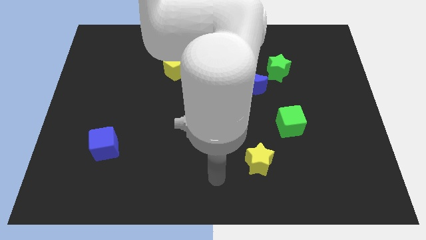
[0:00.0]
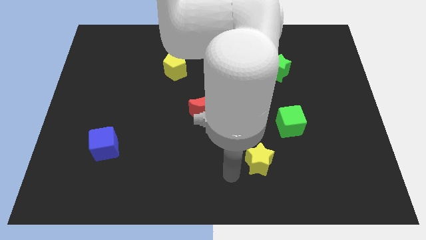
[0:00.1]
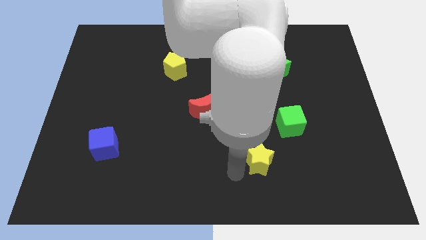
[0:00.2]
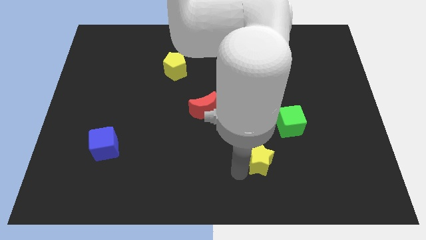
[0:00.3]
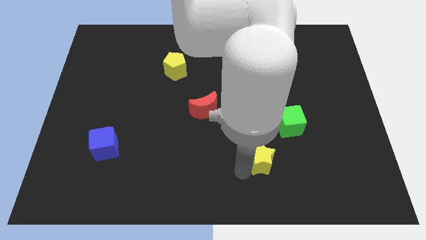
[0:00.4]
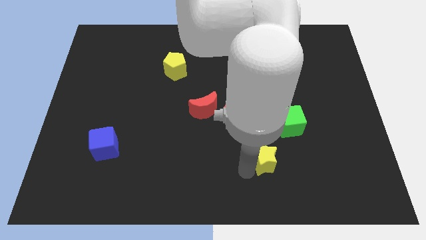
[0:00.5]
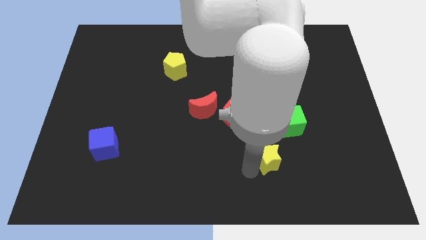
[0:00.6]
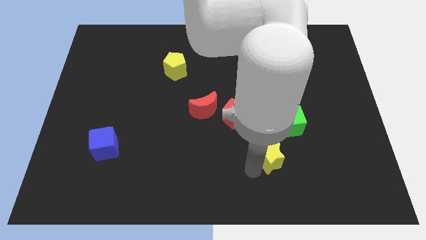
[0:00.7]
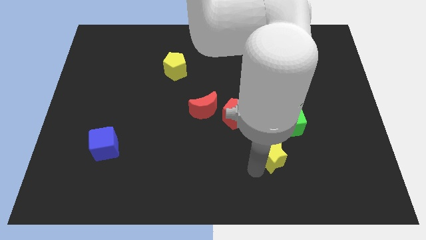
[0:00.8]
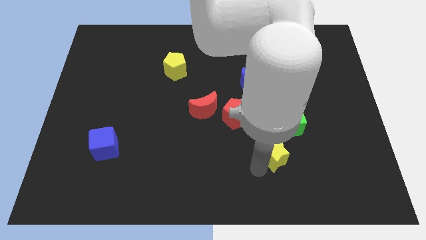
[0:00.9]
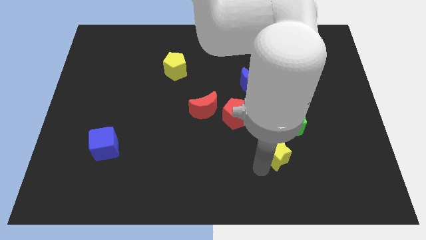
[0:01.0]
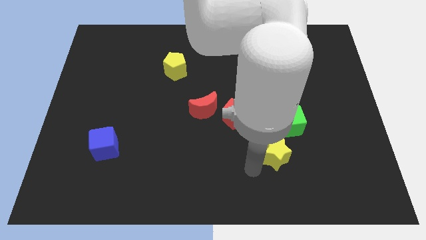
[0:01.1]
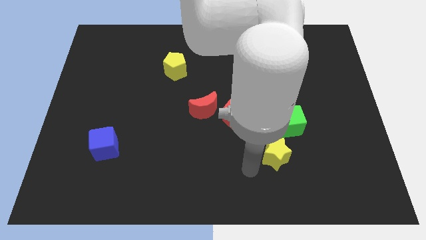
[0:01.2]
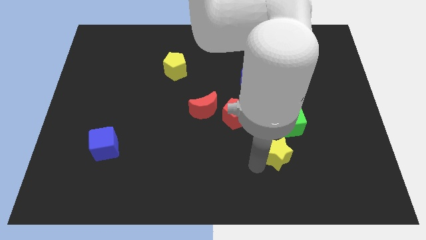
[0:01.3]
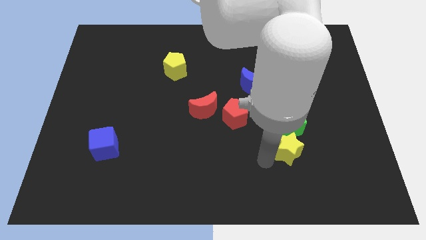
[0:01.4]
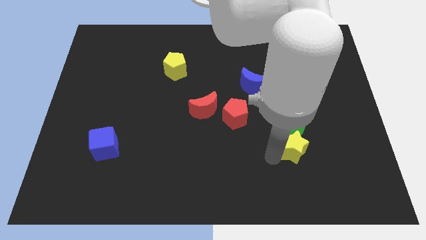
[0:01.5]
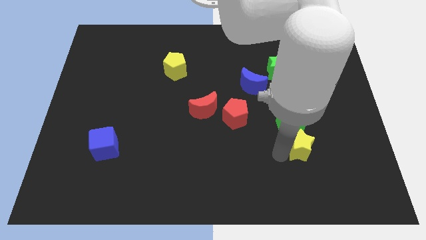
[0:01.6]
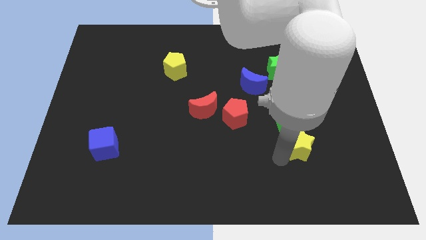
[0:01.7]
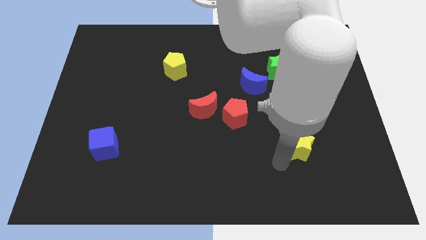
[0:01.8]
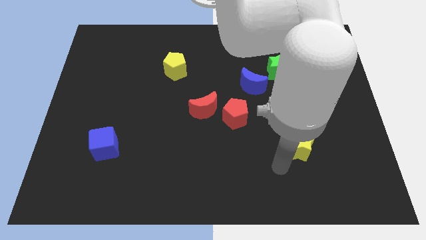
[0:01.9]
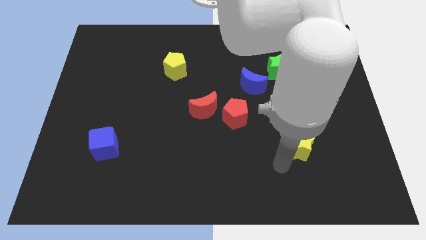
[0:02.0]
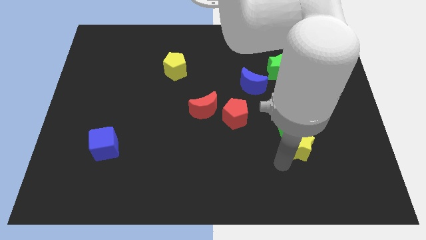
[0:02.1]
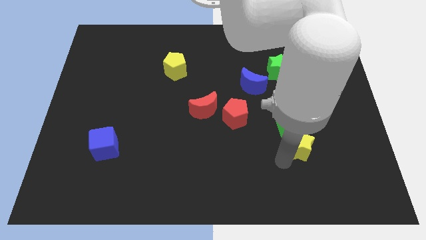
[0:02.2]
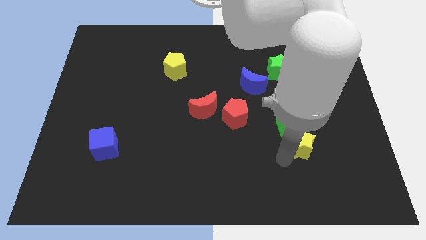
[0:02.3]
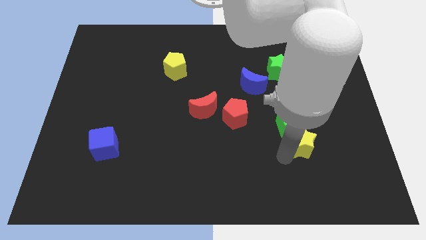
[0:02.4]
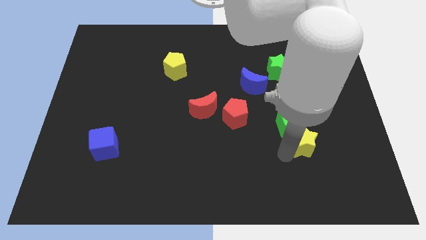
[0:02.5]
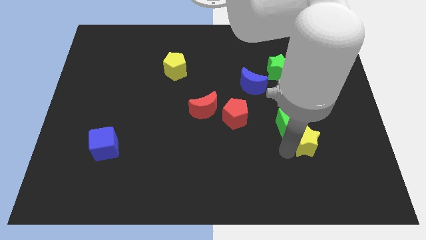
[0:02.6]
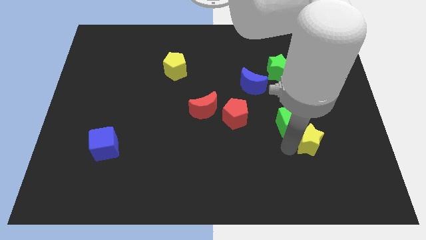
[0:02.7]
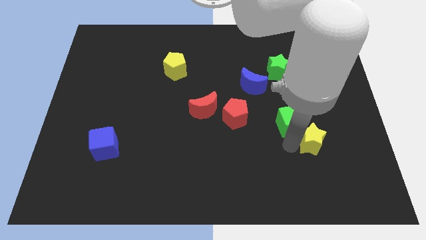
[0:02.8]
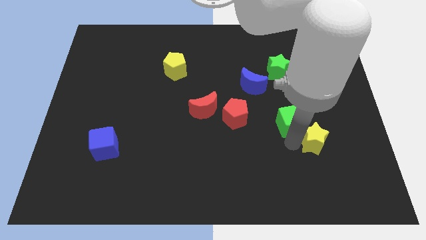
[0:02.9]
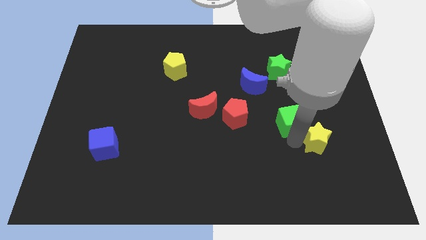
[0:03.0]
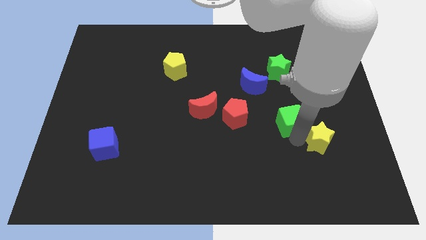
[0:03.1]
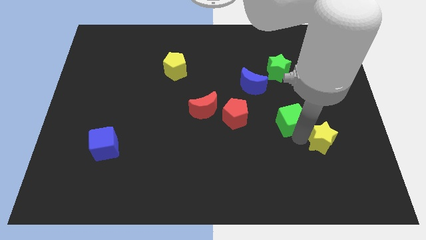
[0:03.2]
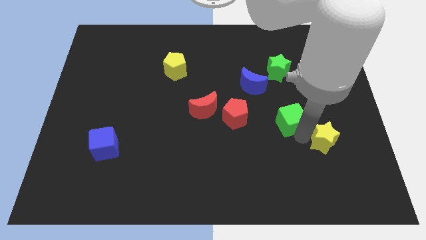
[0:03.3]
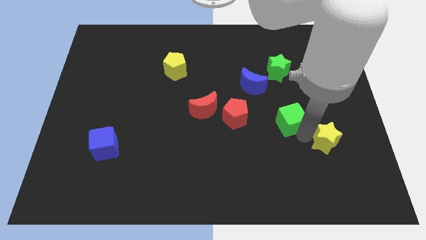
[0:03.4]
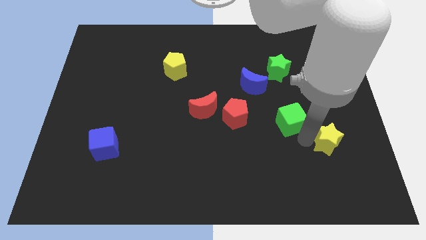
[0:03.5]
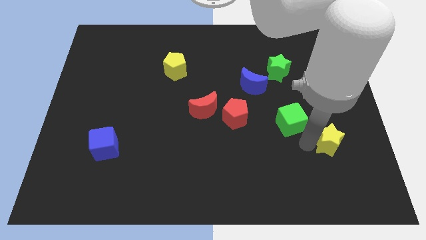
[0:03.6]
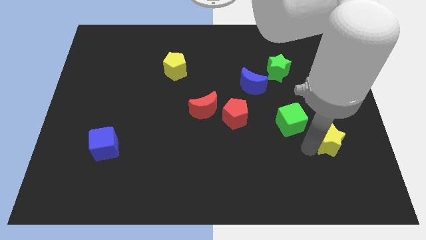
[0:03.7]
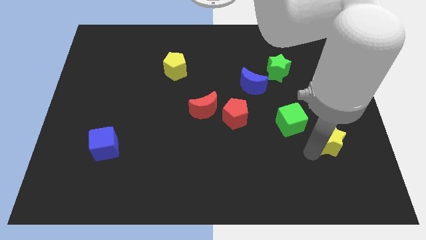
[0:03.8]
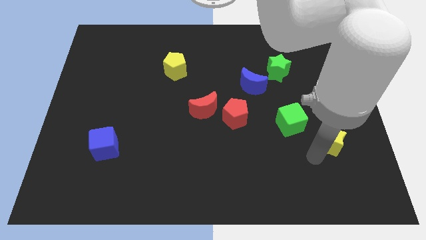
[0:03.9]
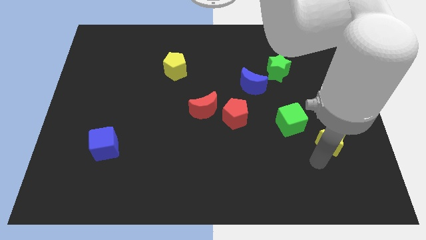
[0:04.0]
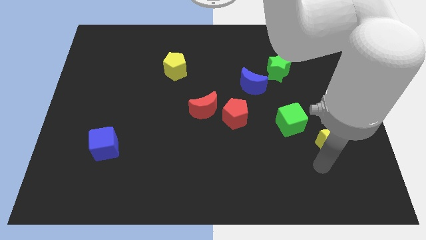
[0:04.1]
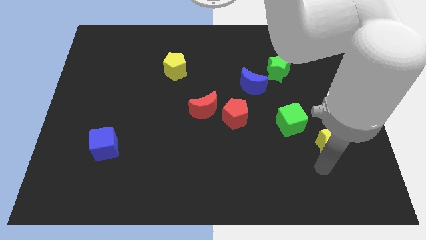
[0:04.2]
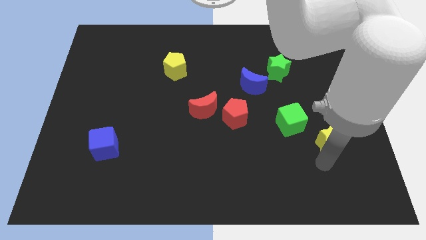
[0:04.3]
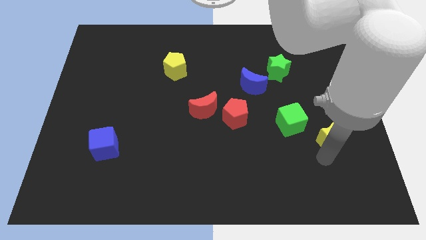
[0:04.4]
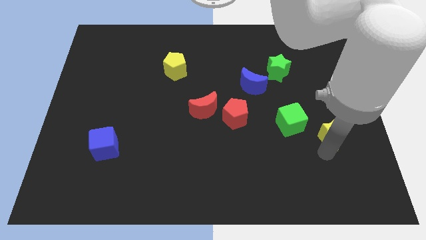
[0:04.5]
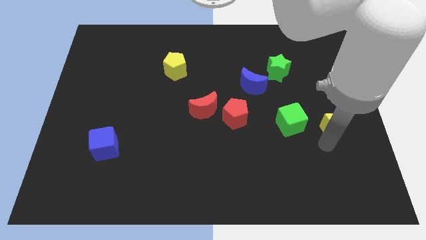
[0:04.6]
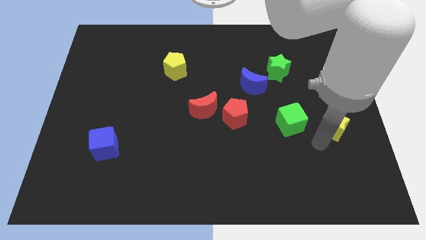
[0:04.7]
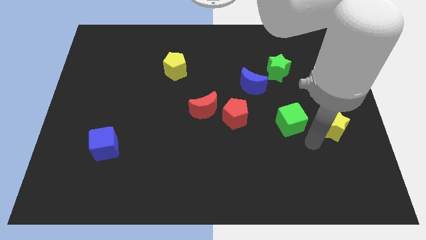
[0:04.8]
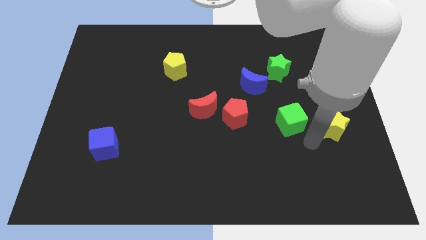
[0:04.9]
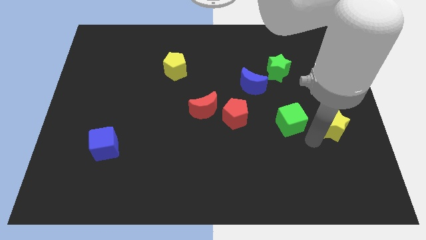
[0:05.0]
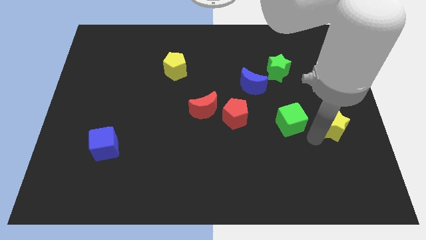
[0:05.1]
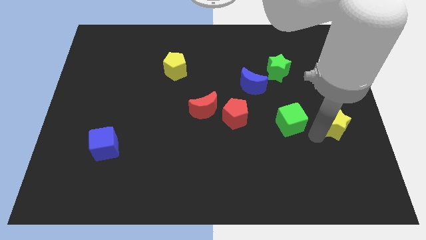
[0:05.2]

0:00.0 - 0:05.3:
move the yellow star to the center right

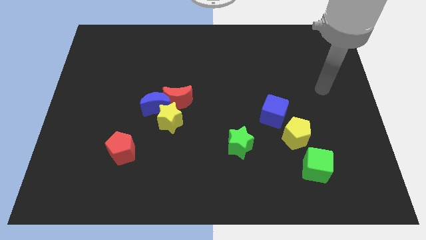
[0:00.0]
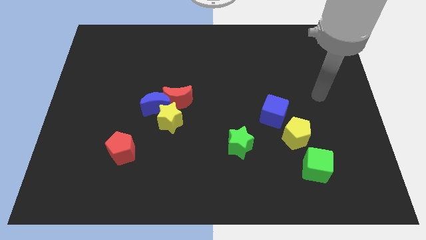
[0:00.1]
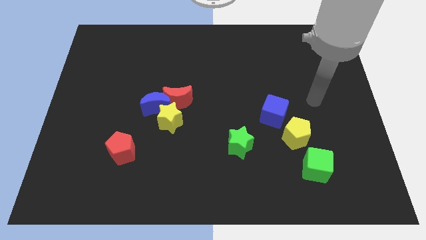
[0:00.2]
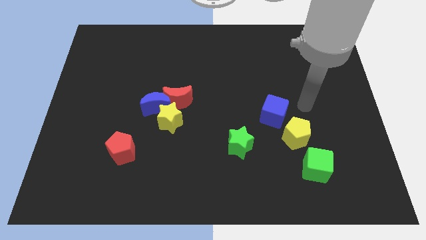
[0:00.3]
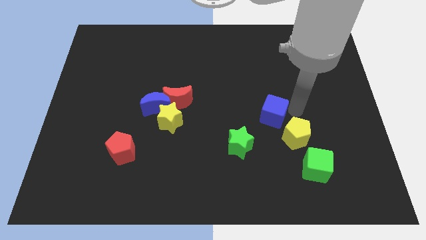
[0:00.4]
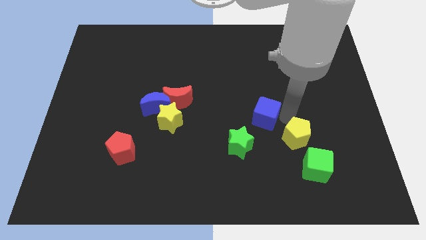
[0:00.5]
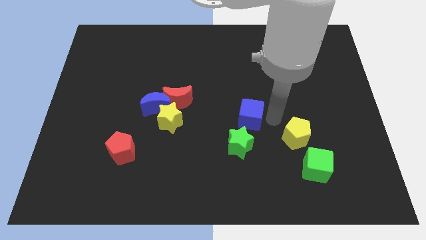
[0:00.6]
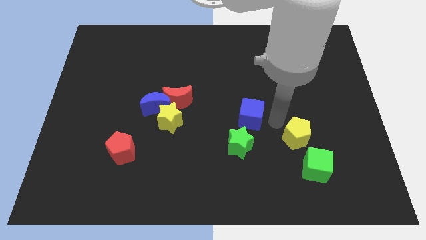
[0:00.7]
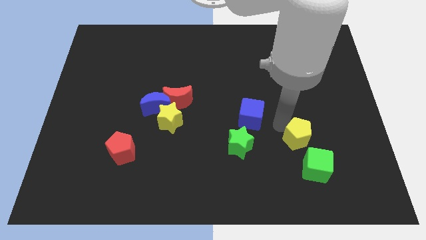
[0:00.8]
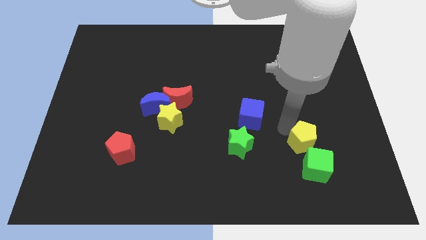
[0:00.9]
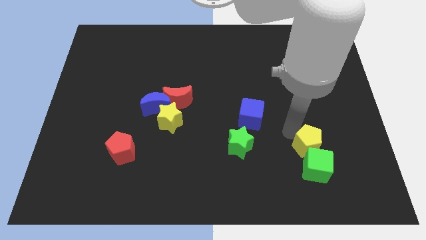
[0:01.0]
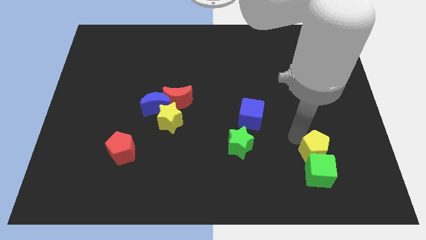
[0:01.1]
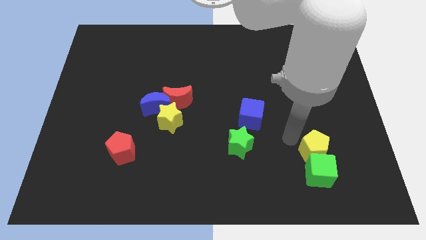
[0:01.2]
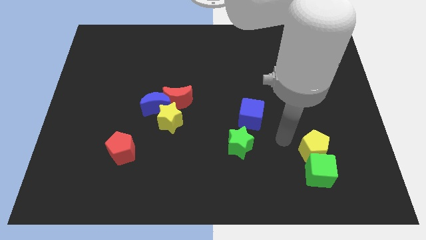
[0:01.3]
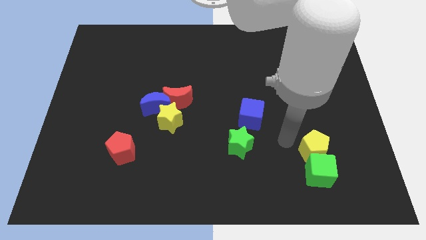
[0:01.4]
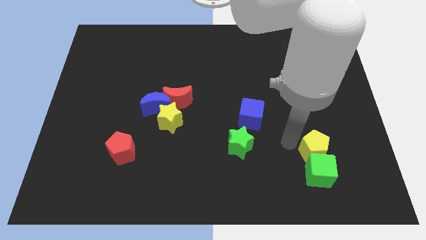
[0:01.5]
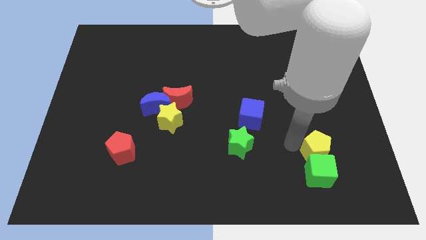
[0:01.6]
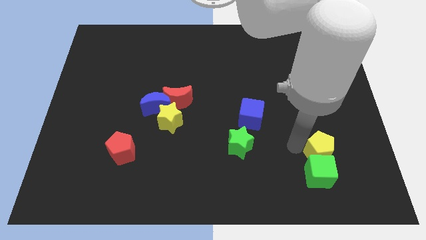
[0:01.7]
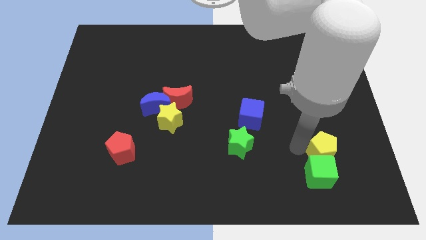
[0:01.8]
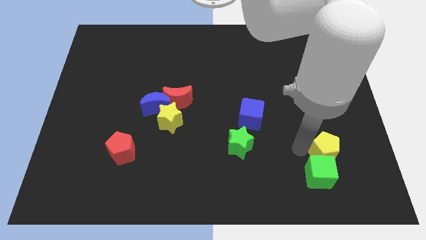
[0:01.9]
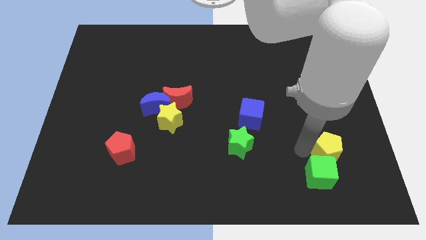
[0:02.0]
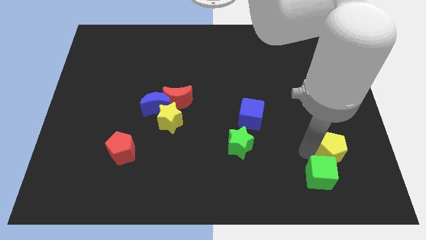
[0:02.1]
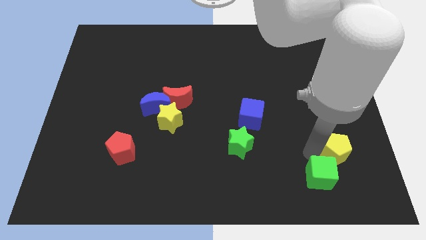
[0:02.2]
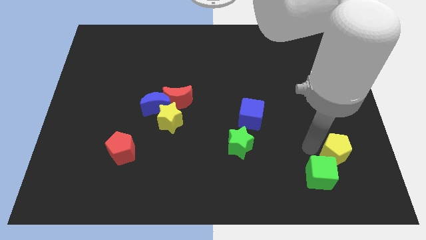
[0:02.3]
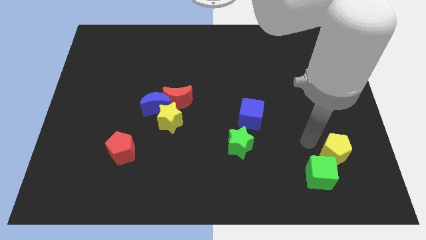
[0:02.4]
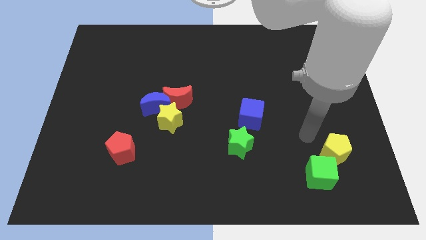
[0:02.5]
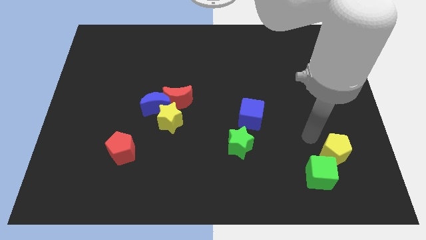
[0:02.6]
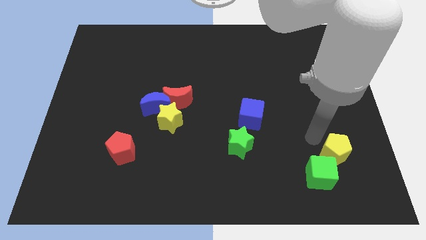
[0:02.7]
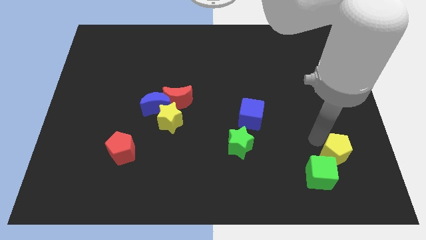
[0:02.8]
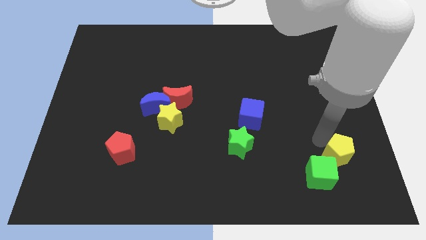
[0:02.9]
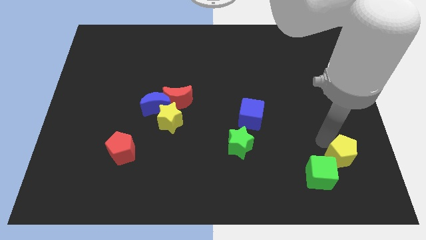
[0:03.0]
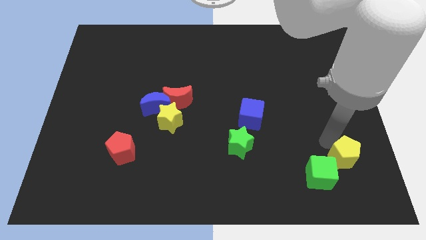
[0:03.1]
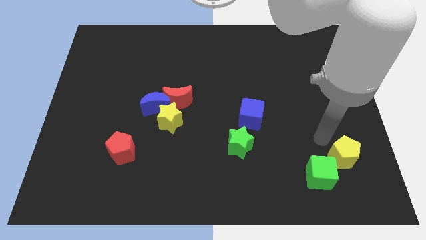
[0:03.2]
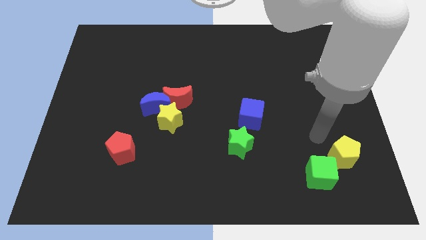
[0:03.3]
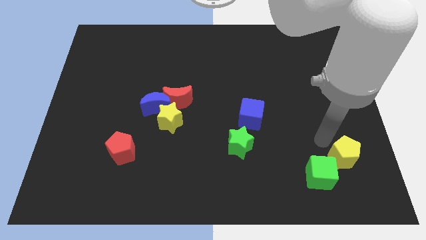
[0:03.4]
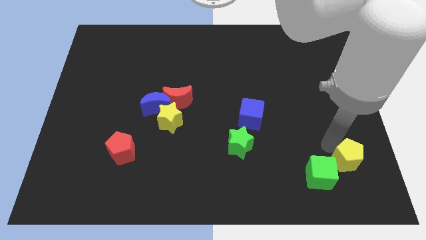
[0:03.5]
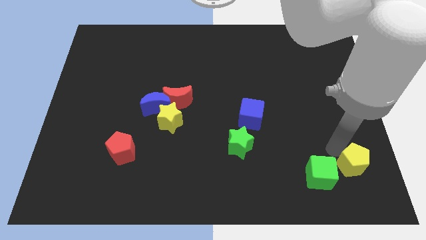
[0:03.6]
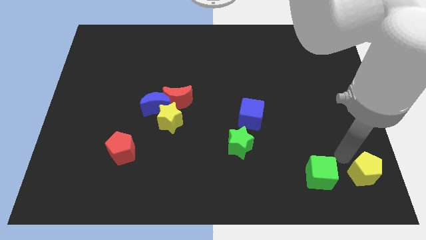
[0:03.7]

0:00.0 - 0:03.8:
put the yellow pentagon to the bottom right of the board
